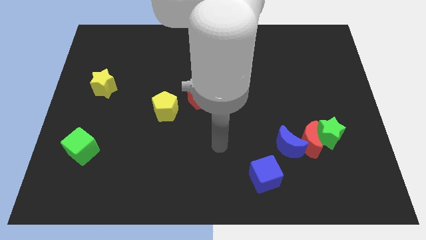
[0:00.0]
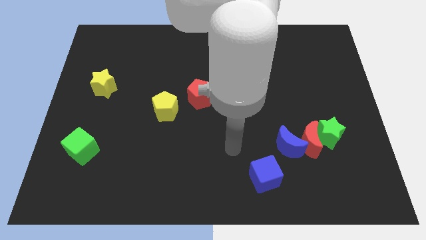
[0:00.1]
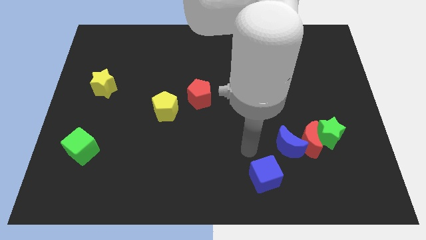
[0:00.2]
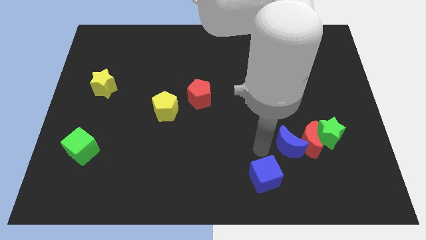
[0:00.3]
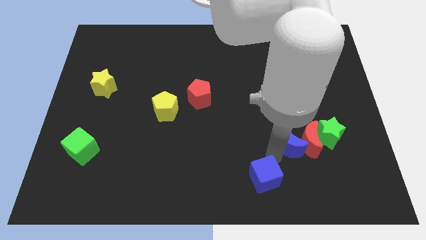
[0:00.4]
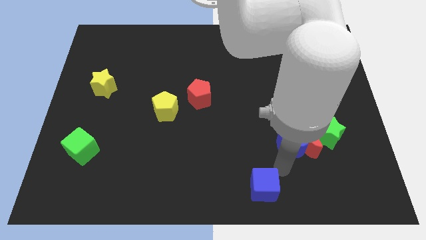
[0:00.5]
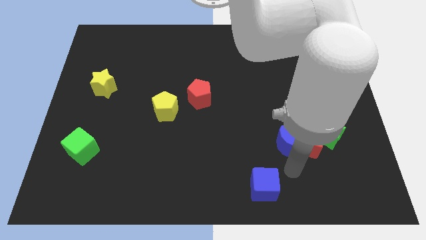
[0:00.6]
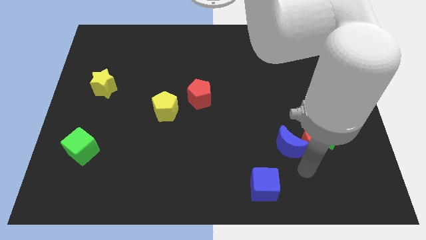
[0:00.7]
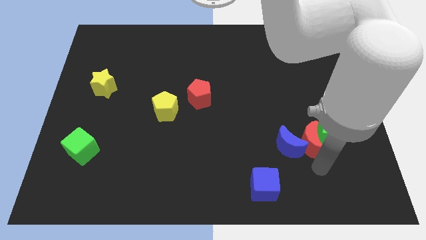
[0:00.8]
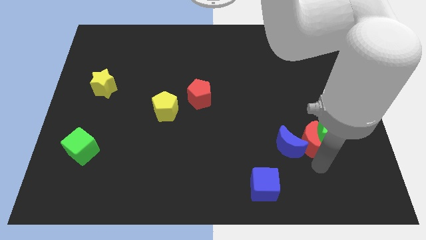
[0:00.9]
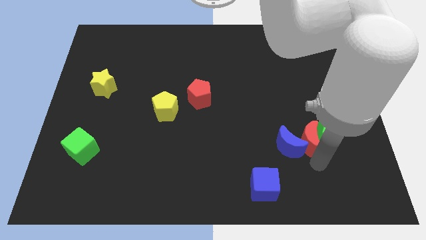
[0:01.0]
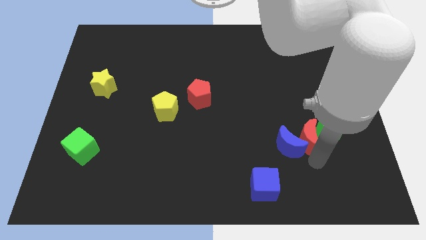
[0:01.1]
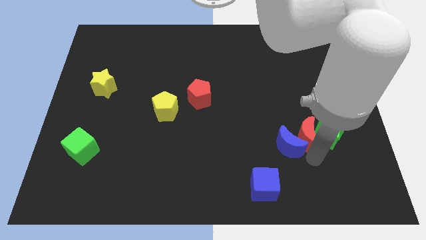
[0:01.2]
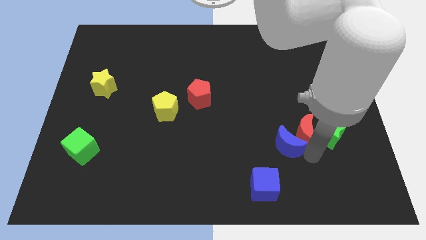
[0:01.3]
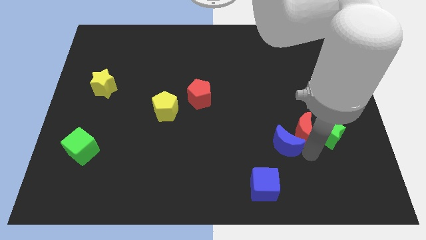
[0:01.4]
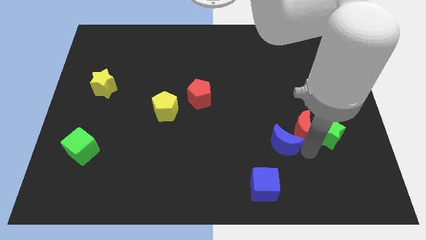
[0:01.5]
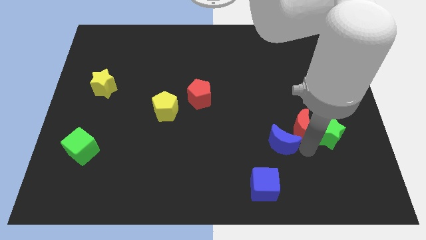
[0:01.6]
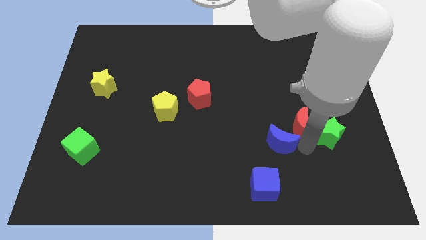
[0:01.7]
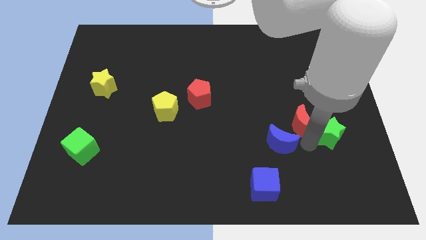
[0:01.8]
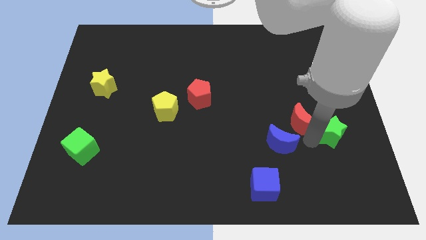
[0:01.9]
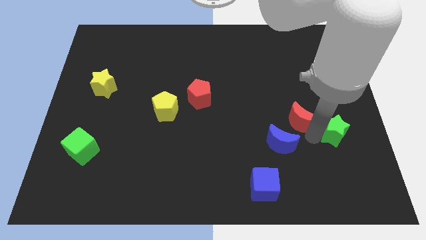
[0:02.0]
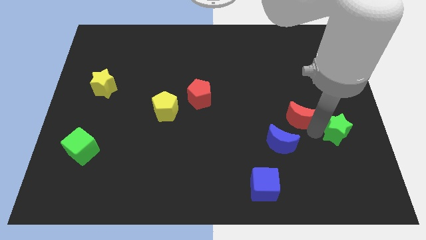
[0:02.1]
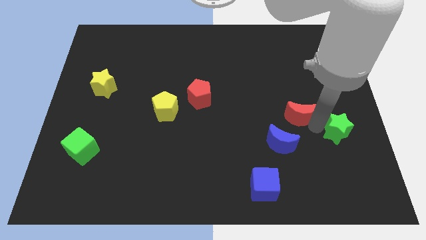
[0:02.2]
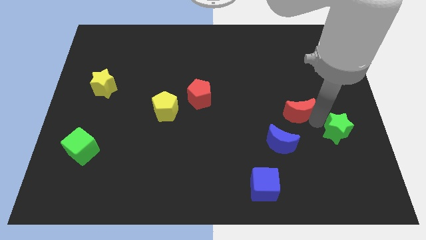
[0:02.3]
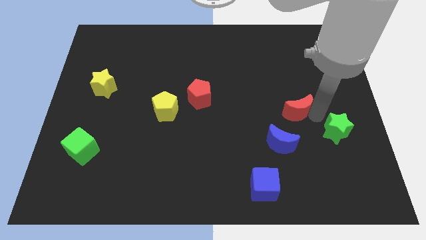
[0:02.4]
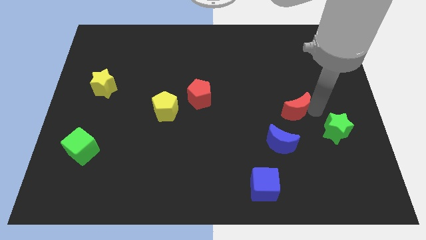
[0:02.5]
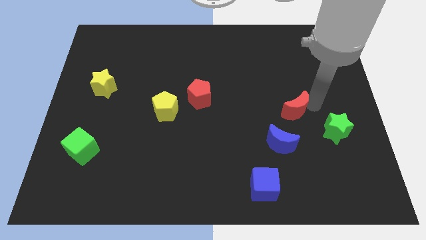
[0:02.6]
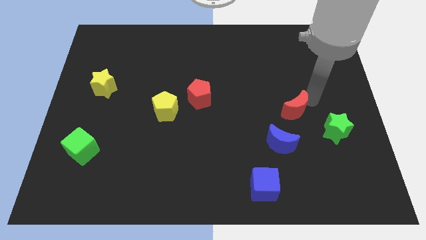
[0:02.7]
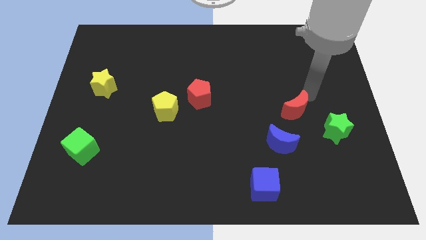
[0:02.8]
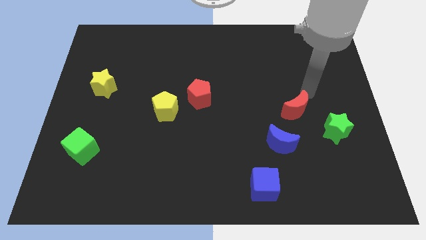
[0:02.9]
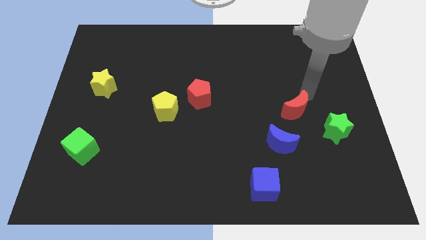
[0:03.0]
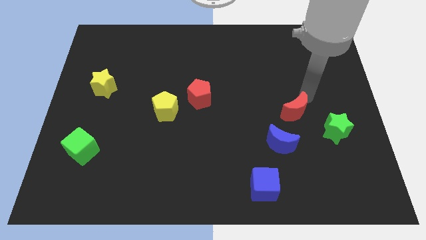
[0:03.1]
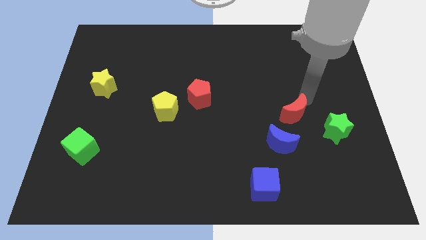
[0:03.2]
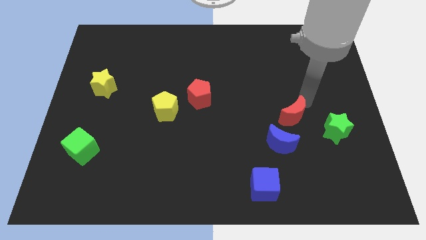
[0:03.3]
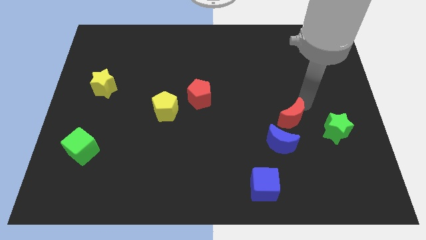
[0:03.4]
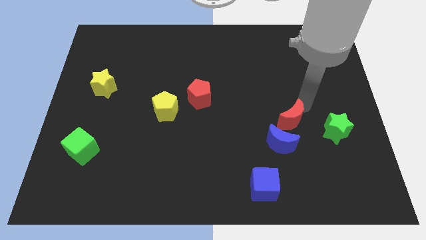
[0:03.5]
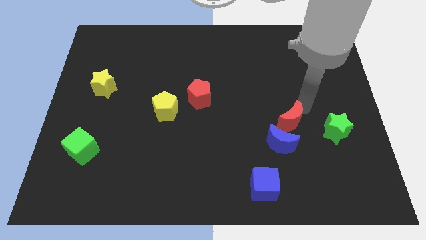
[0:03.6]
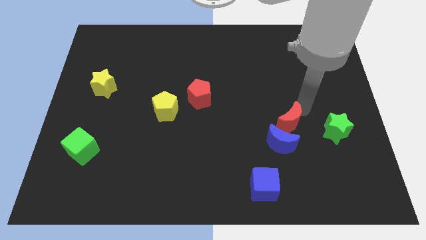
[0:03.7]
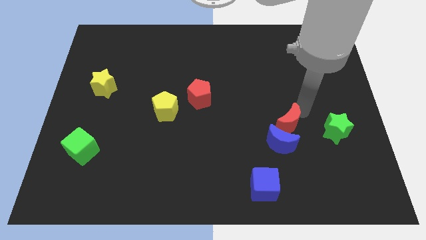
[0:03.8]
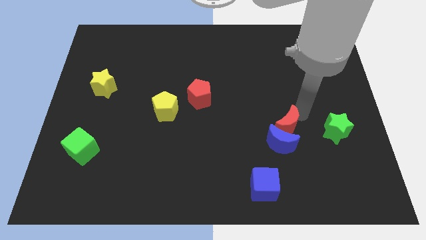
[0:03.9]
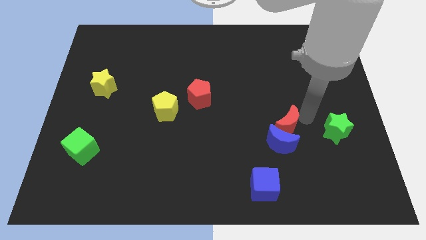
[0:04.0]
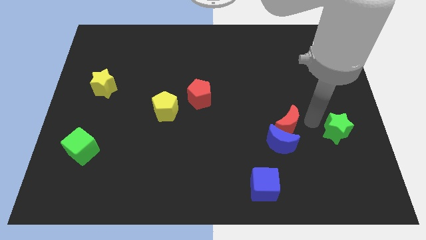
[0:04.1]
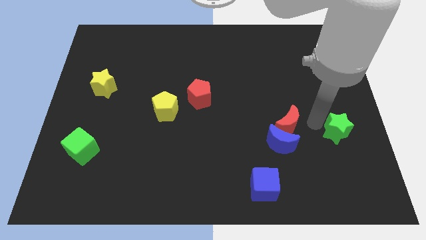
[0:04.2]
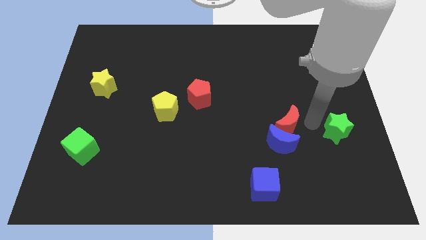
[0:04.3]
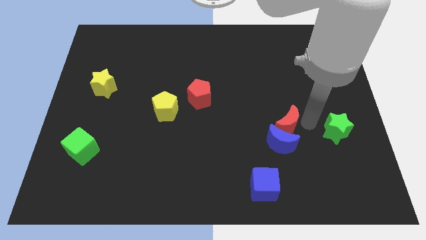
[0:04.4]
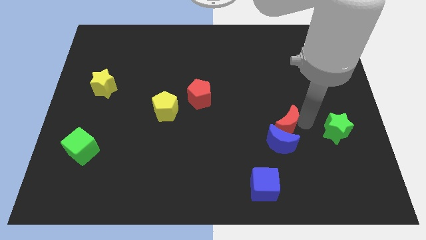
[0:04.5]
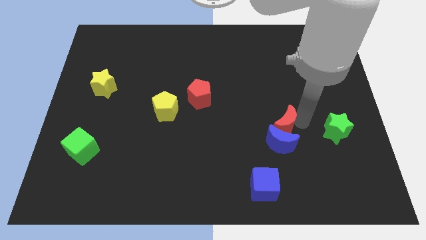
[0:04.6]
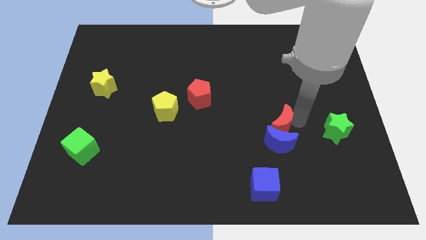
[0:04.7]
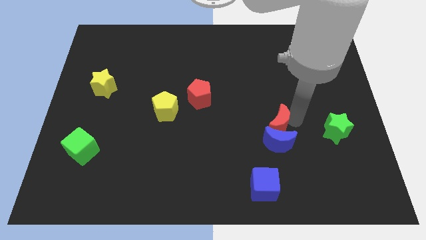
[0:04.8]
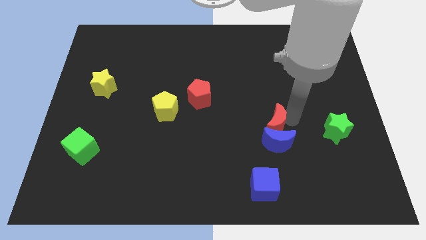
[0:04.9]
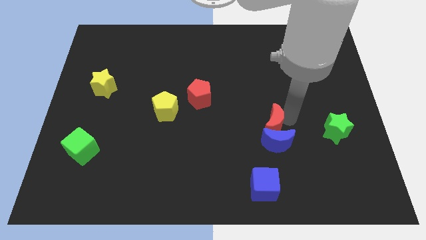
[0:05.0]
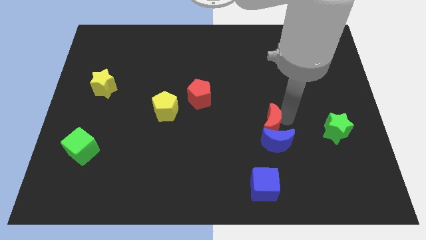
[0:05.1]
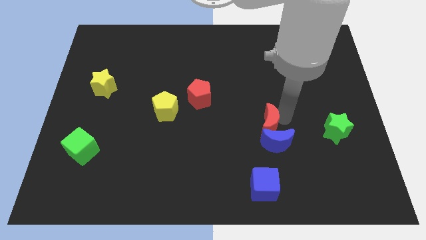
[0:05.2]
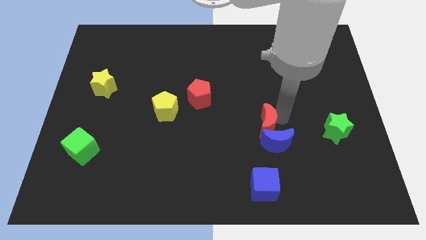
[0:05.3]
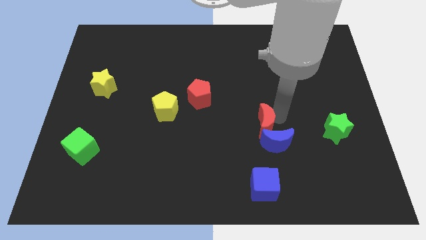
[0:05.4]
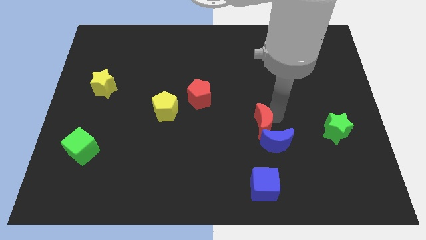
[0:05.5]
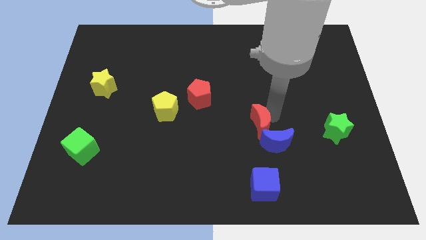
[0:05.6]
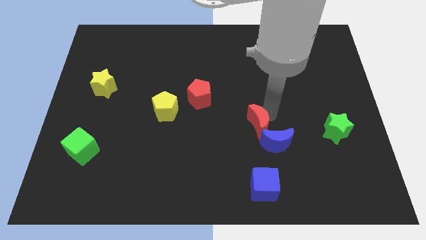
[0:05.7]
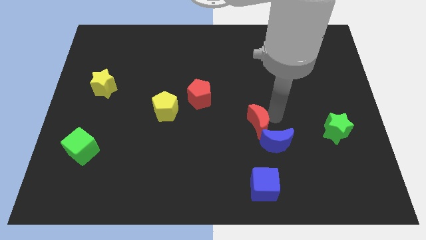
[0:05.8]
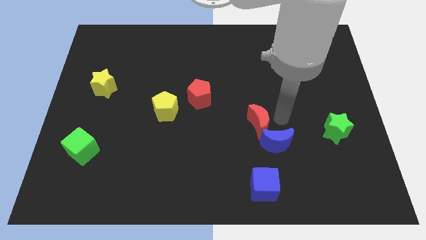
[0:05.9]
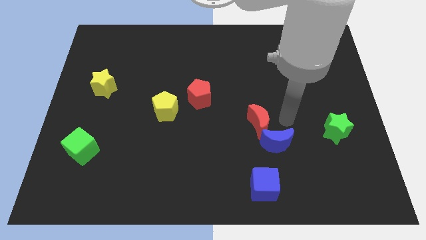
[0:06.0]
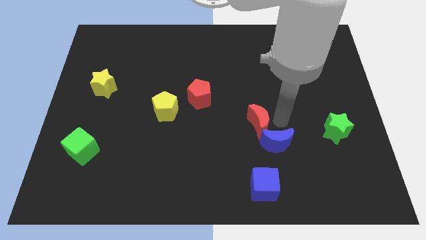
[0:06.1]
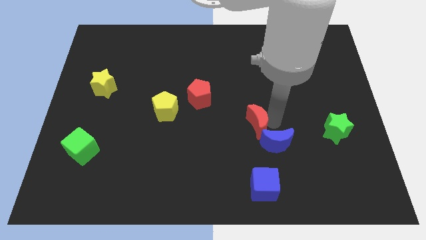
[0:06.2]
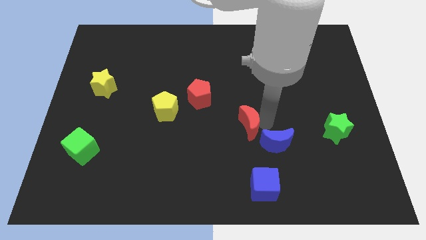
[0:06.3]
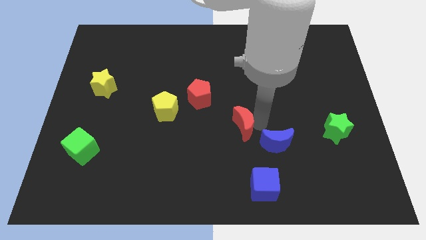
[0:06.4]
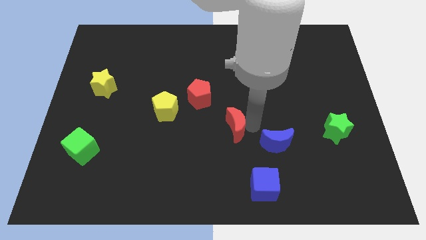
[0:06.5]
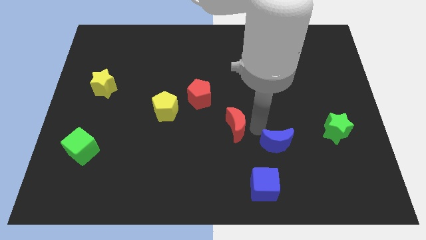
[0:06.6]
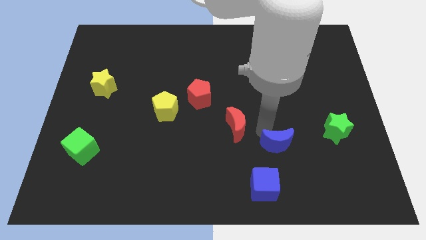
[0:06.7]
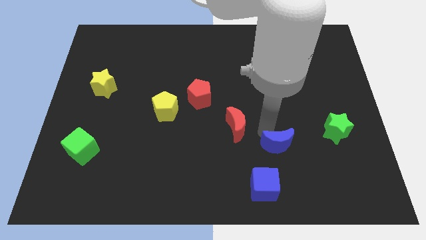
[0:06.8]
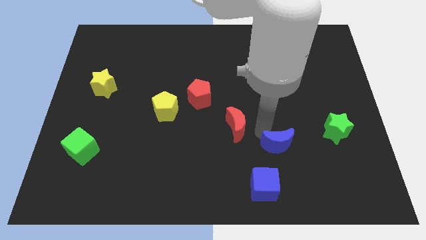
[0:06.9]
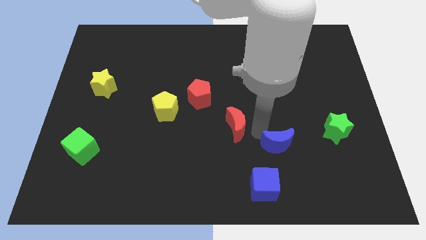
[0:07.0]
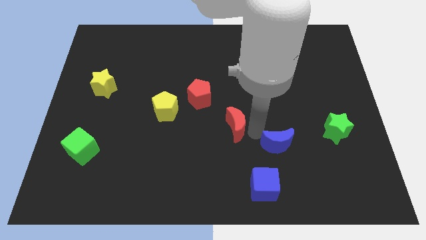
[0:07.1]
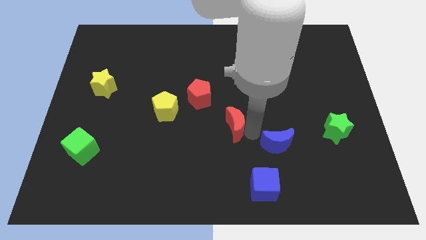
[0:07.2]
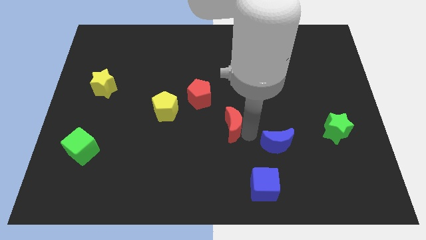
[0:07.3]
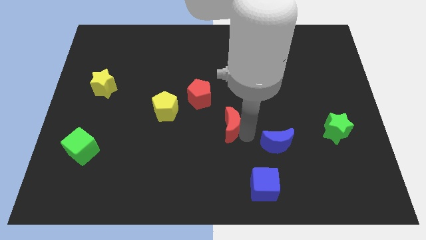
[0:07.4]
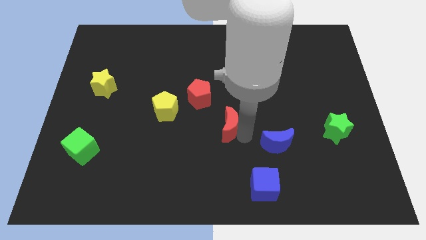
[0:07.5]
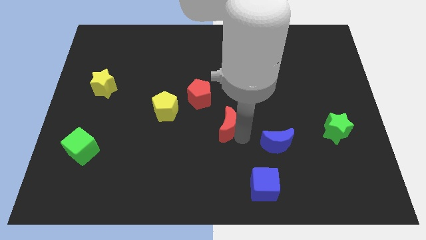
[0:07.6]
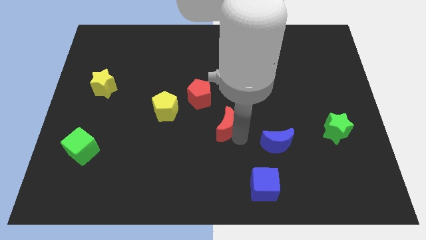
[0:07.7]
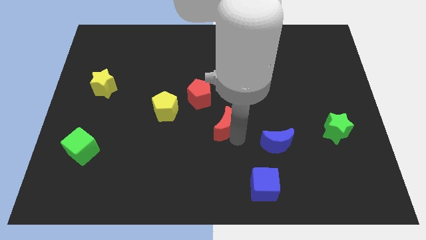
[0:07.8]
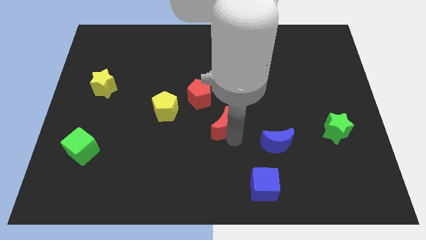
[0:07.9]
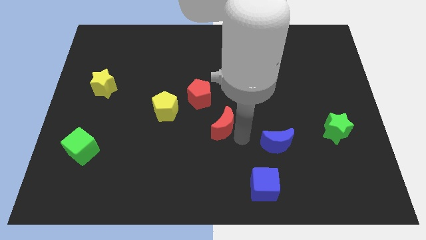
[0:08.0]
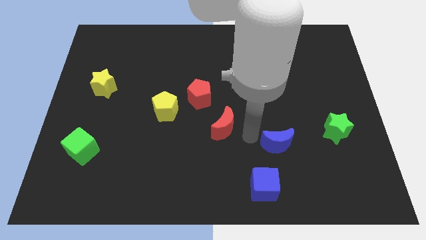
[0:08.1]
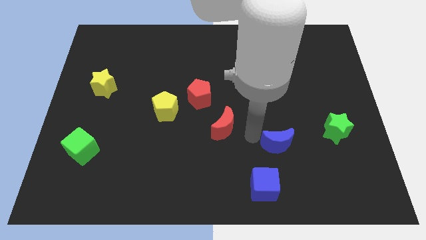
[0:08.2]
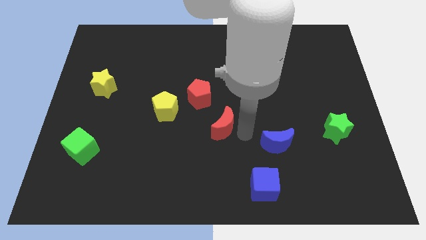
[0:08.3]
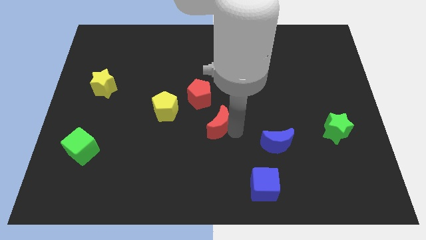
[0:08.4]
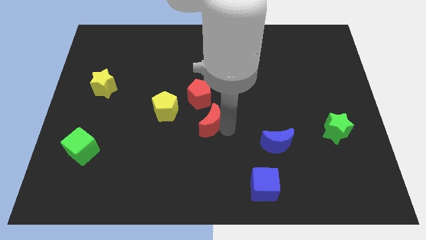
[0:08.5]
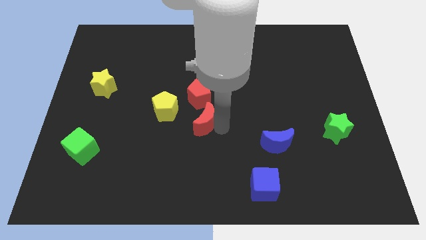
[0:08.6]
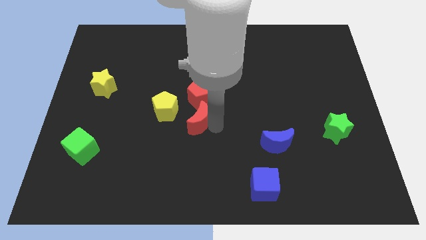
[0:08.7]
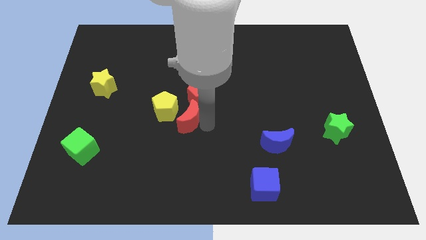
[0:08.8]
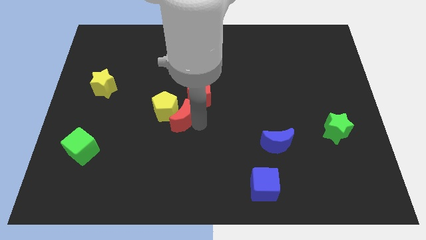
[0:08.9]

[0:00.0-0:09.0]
push the red moon next to the yellow pentagon
